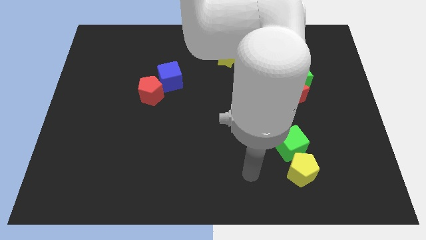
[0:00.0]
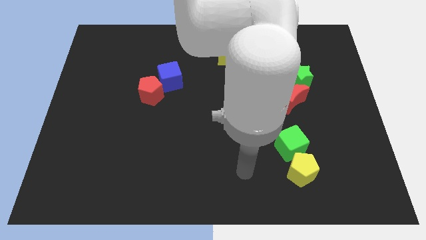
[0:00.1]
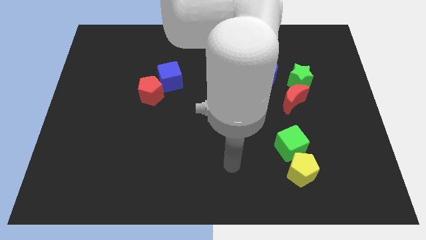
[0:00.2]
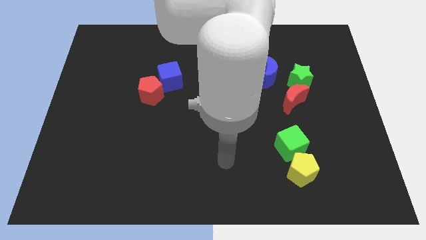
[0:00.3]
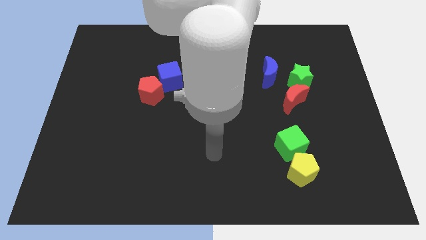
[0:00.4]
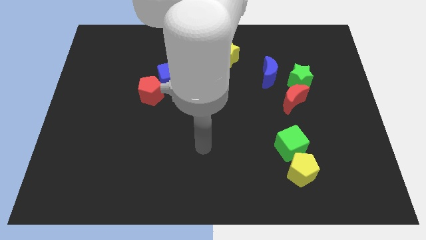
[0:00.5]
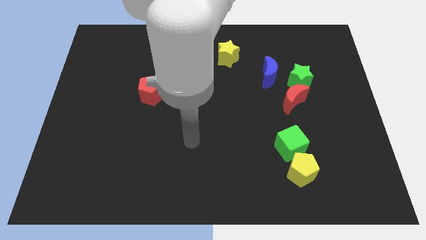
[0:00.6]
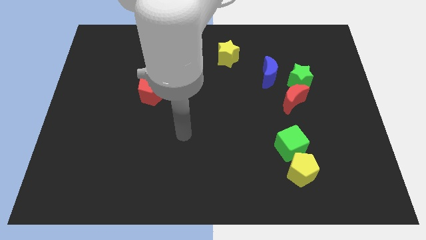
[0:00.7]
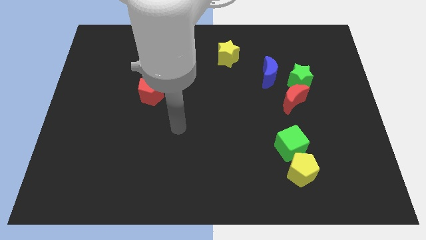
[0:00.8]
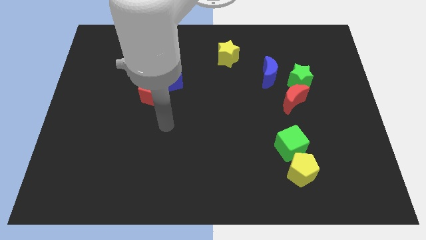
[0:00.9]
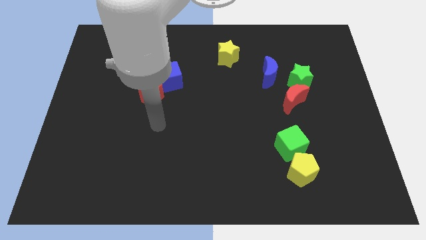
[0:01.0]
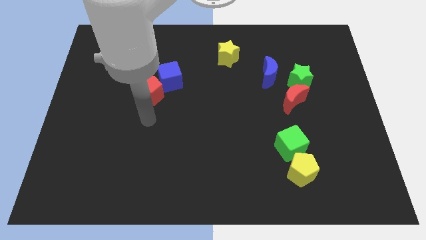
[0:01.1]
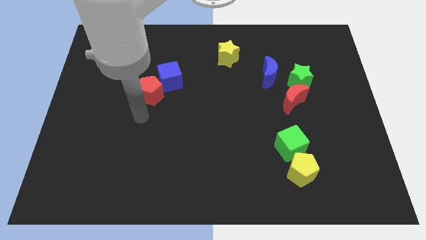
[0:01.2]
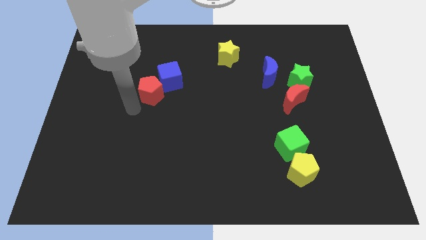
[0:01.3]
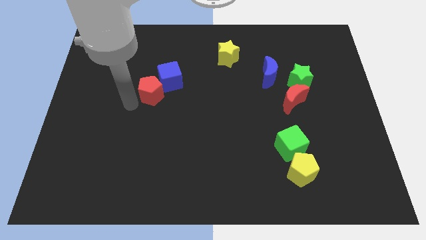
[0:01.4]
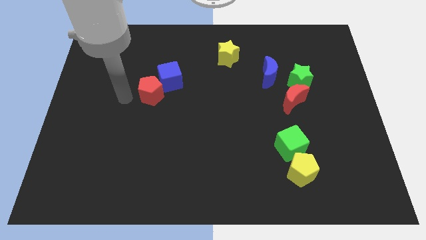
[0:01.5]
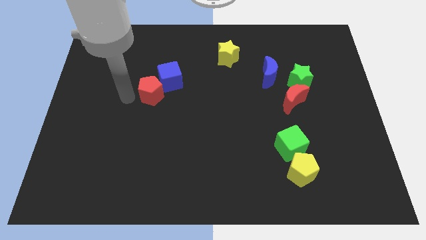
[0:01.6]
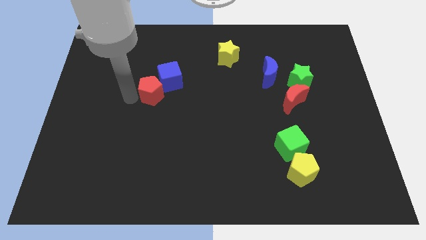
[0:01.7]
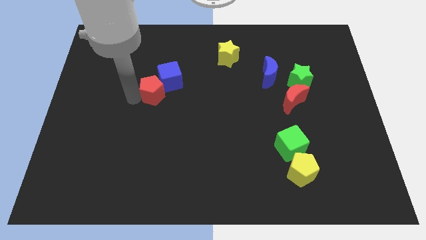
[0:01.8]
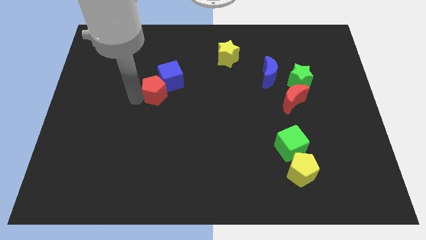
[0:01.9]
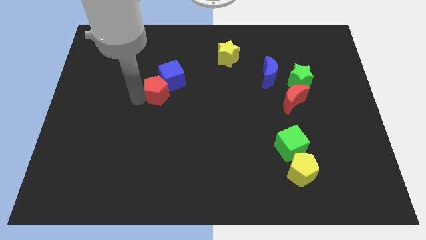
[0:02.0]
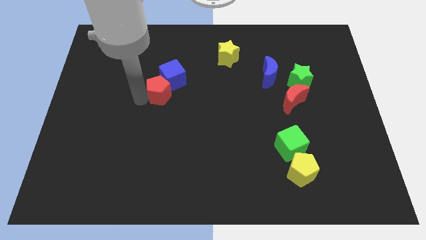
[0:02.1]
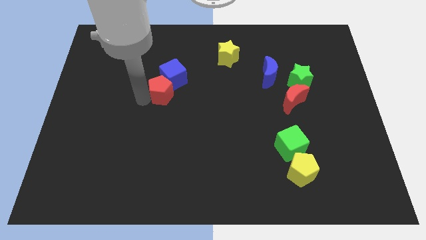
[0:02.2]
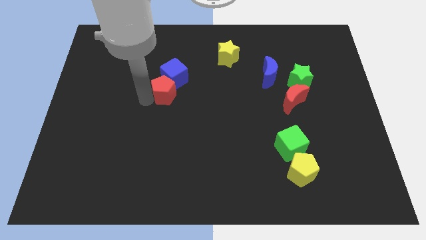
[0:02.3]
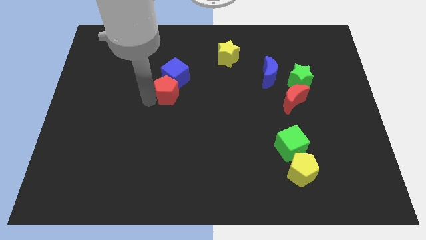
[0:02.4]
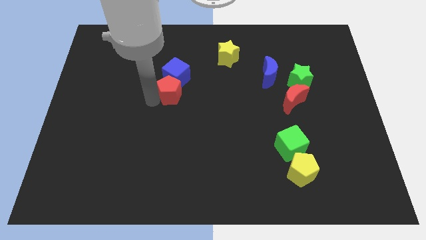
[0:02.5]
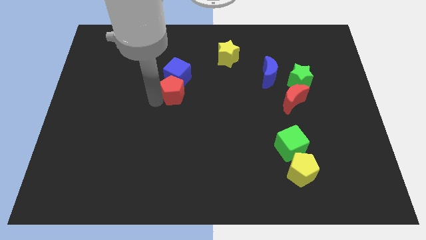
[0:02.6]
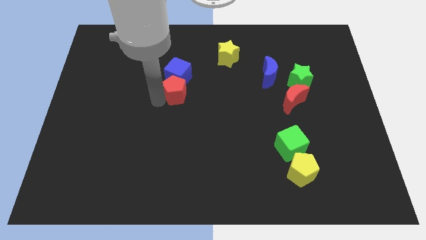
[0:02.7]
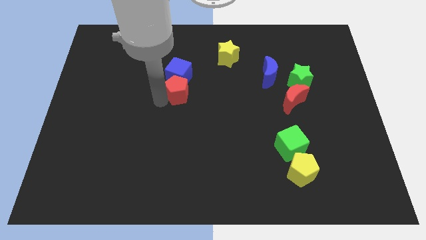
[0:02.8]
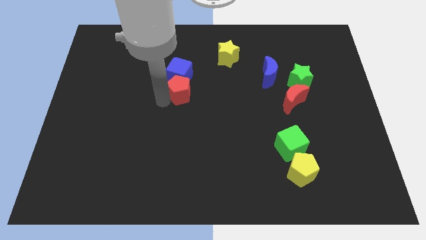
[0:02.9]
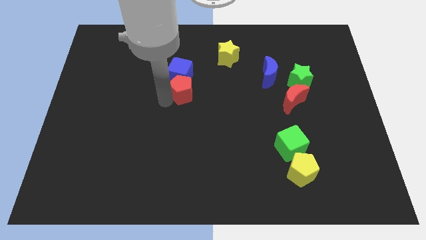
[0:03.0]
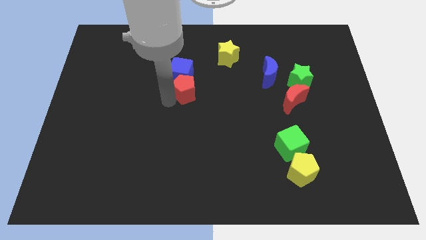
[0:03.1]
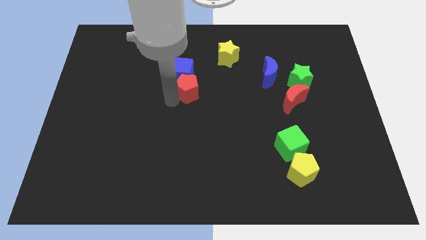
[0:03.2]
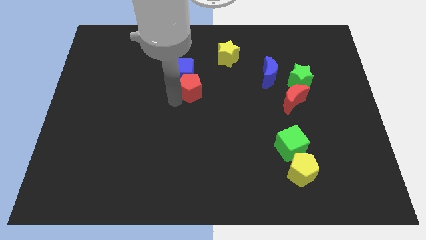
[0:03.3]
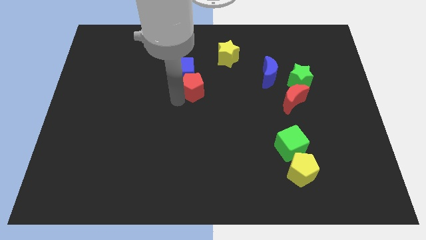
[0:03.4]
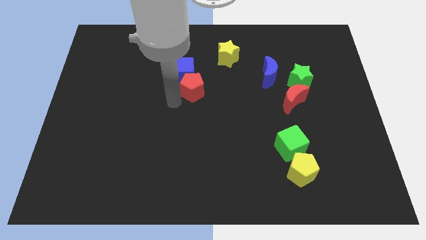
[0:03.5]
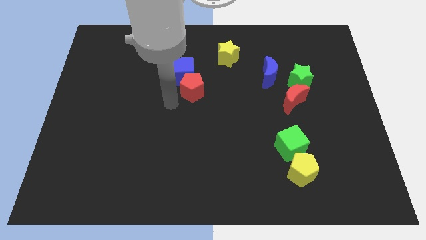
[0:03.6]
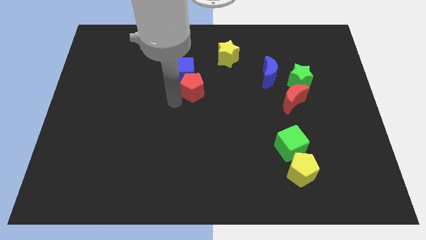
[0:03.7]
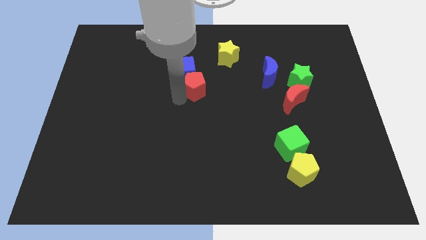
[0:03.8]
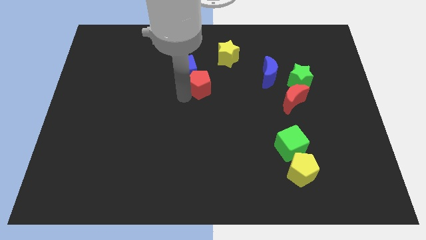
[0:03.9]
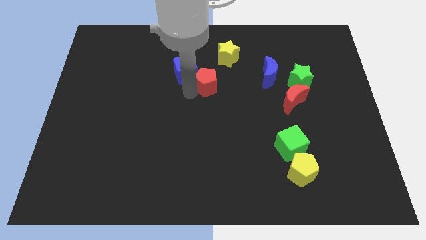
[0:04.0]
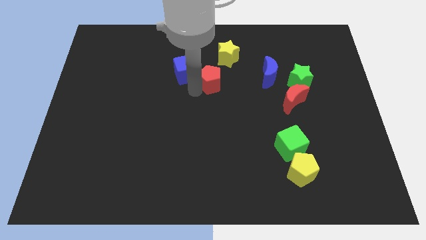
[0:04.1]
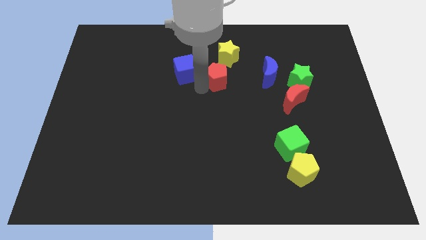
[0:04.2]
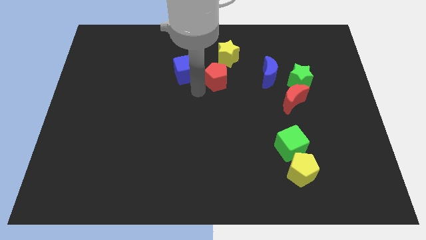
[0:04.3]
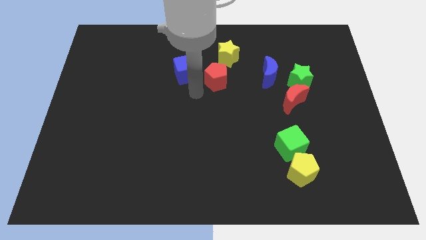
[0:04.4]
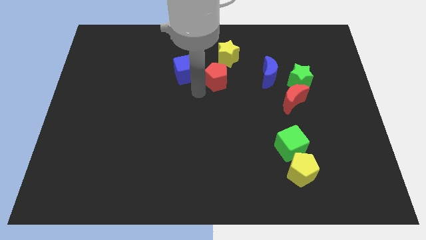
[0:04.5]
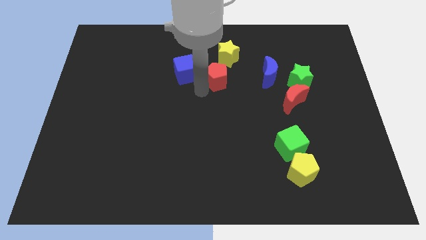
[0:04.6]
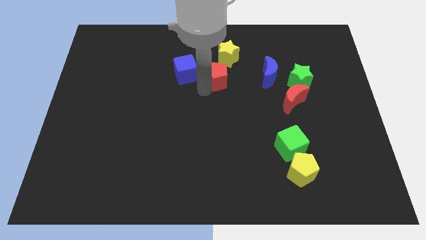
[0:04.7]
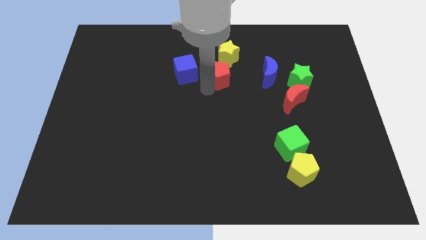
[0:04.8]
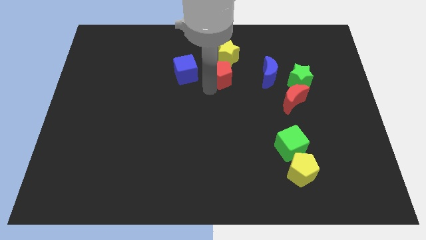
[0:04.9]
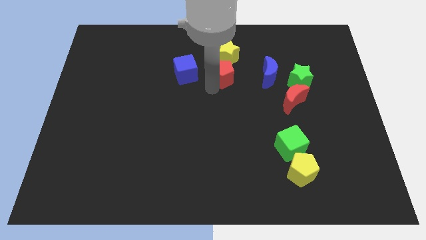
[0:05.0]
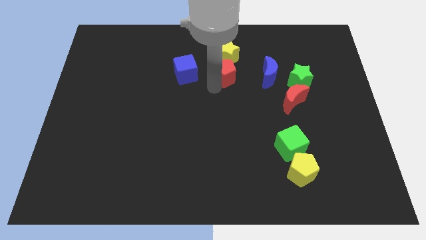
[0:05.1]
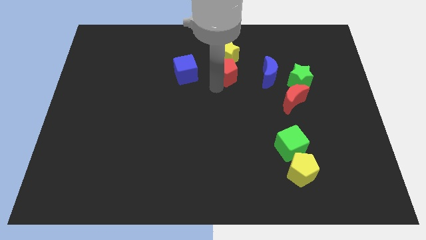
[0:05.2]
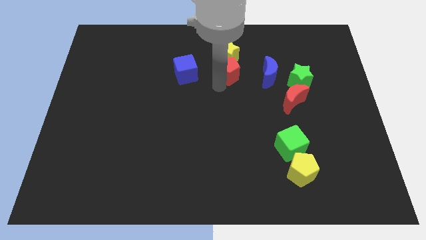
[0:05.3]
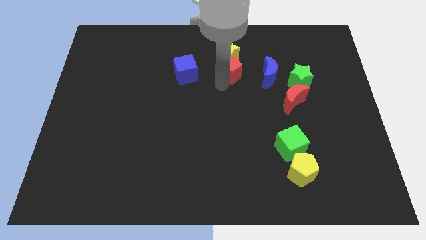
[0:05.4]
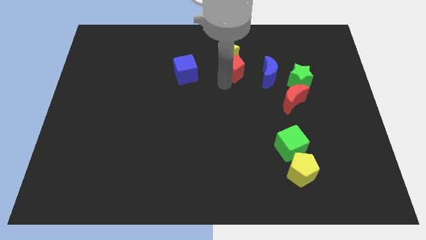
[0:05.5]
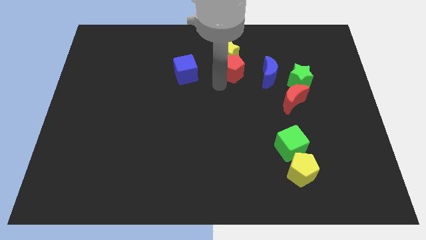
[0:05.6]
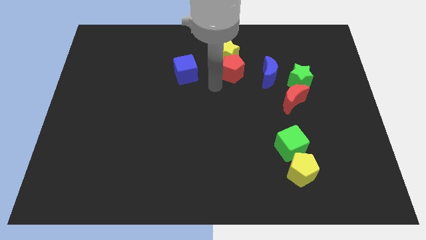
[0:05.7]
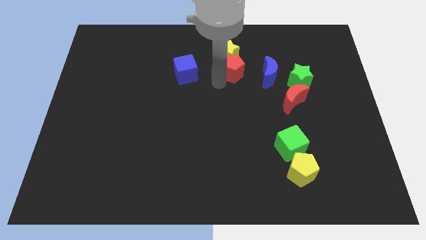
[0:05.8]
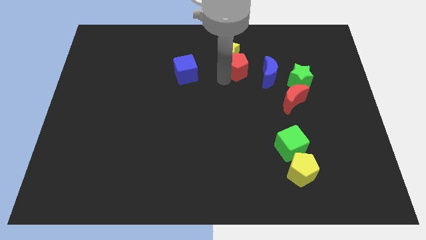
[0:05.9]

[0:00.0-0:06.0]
slide the red pentagon diagonally up and to the left of the blue moon
